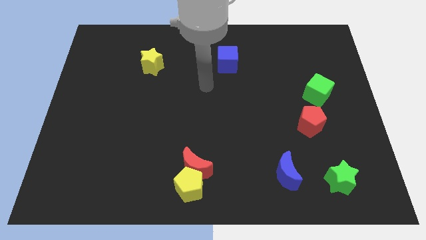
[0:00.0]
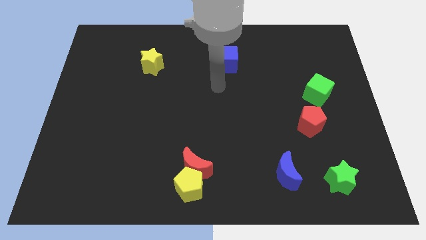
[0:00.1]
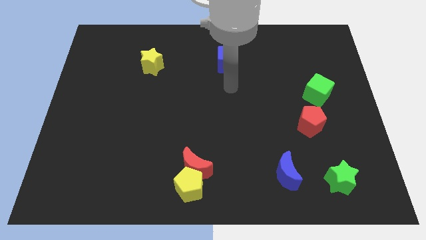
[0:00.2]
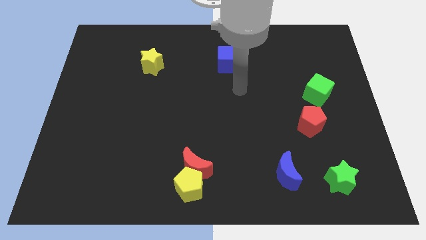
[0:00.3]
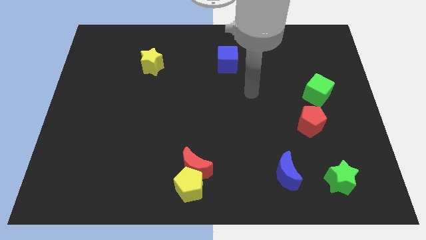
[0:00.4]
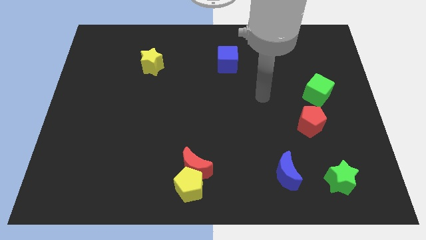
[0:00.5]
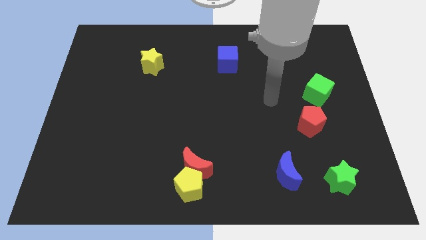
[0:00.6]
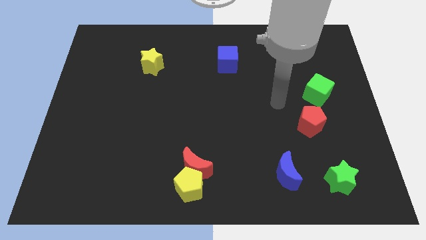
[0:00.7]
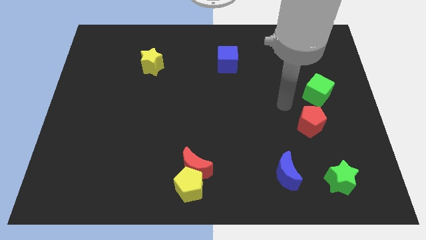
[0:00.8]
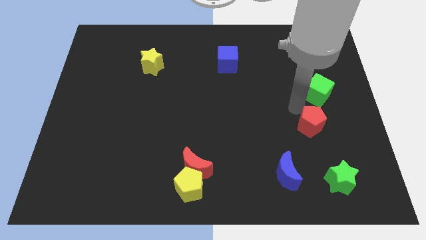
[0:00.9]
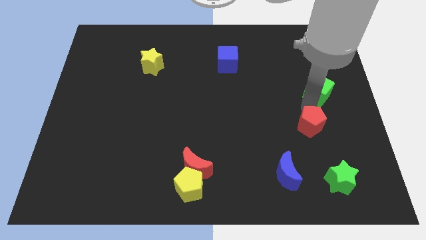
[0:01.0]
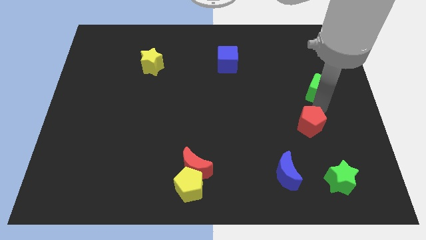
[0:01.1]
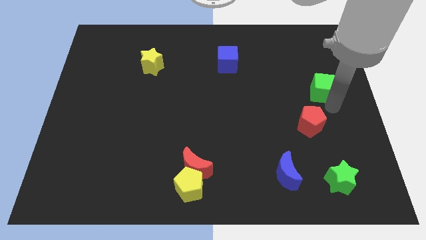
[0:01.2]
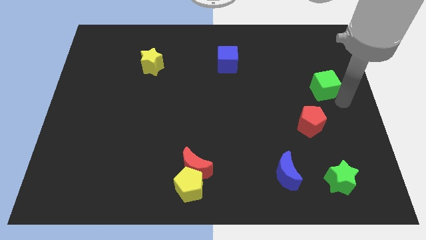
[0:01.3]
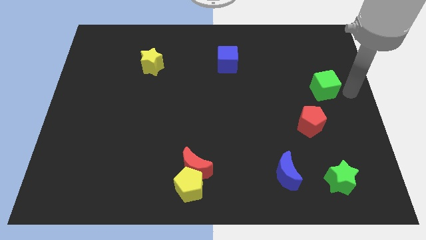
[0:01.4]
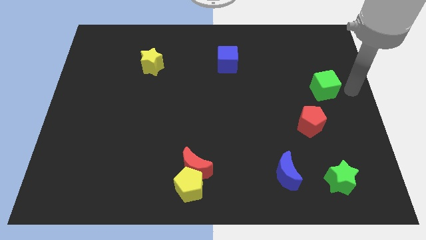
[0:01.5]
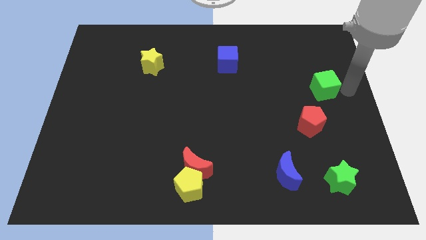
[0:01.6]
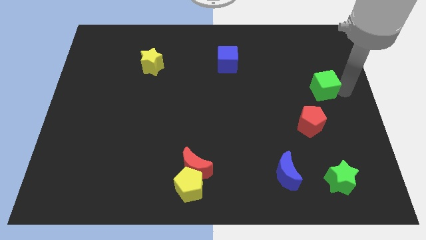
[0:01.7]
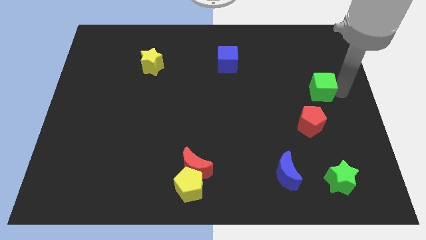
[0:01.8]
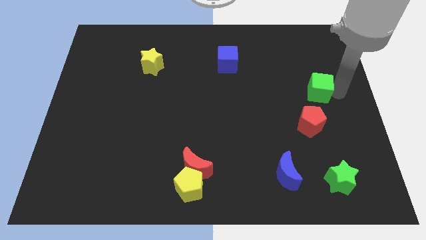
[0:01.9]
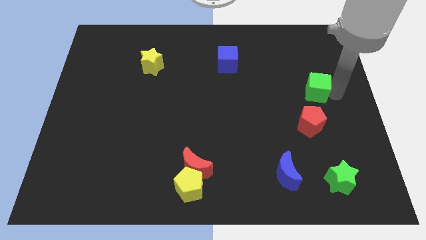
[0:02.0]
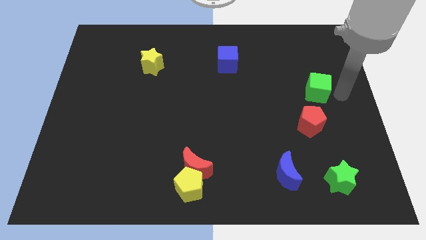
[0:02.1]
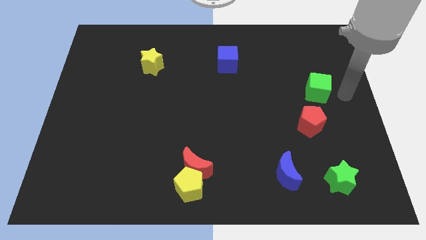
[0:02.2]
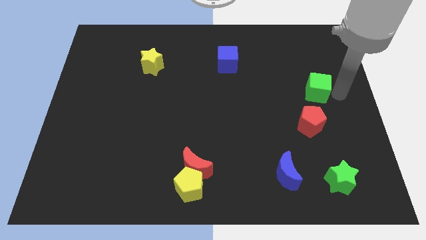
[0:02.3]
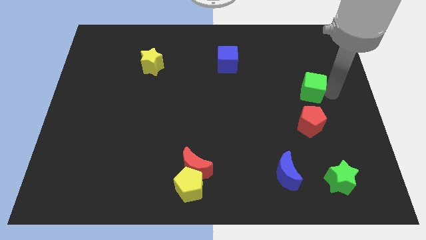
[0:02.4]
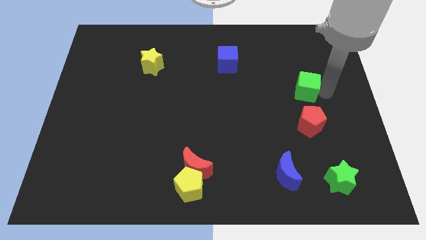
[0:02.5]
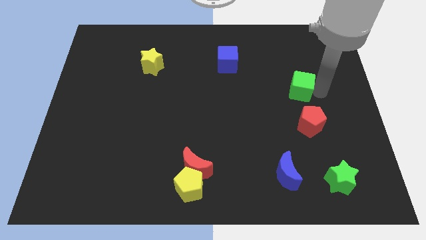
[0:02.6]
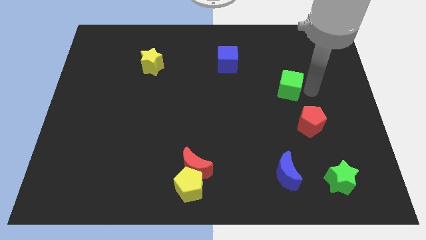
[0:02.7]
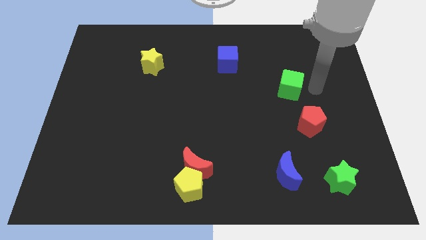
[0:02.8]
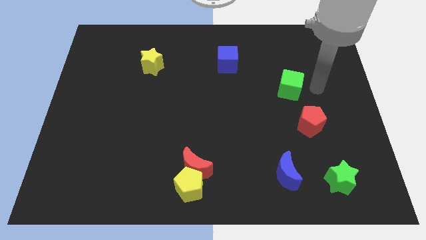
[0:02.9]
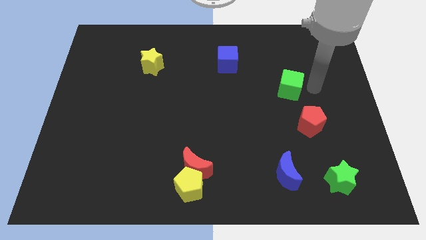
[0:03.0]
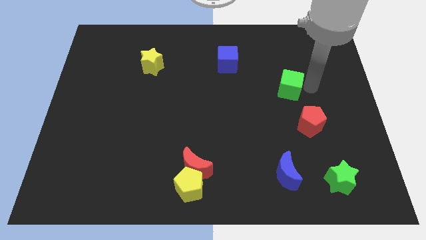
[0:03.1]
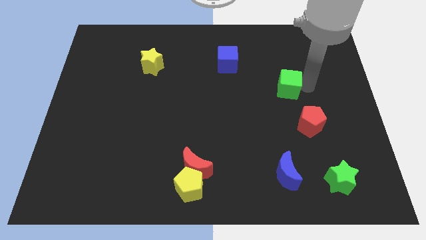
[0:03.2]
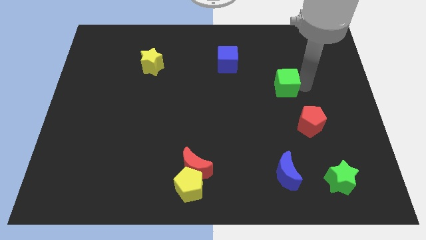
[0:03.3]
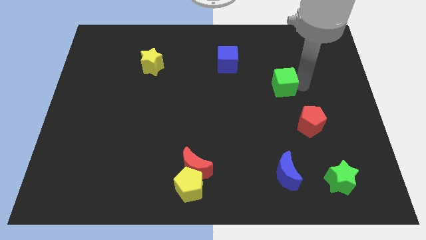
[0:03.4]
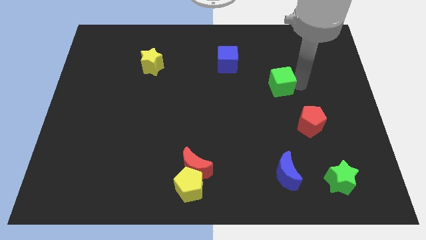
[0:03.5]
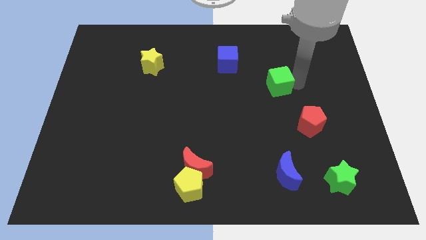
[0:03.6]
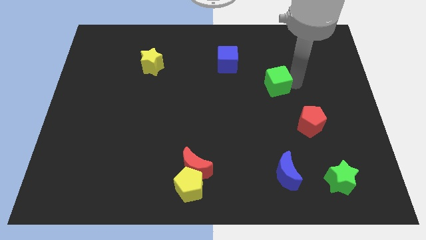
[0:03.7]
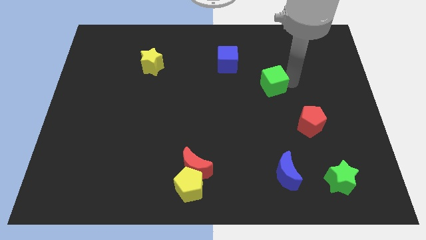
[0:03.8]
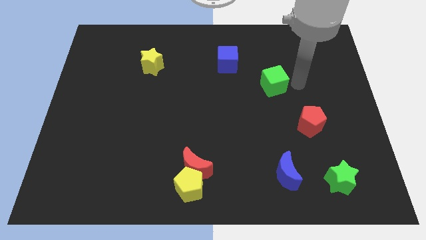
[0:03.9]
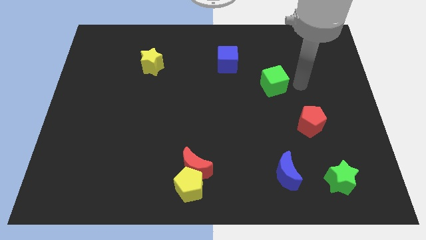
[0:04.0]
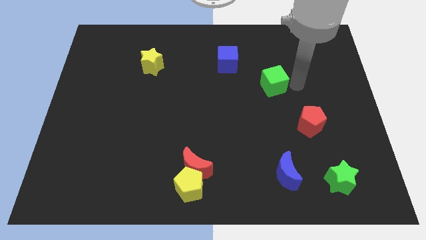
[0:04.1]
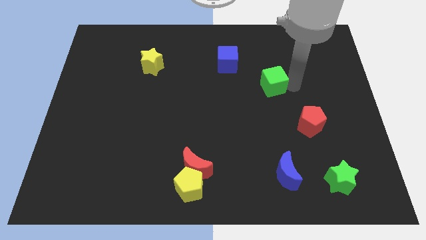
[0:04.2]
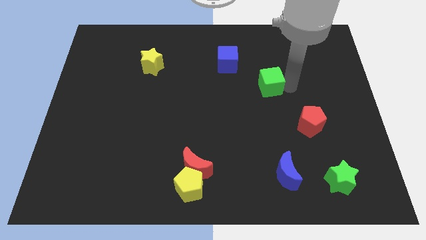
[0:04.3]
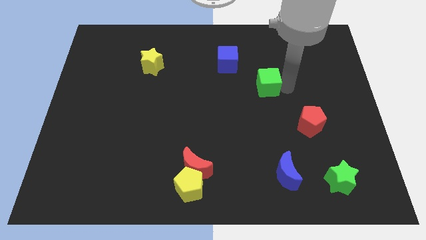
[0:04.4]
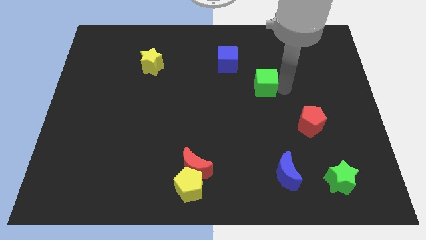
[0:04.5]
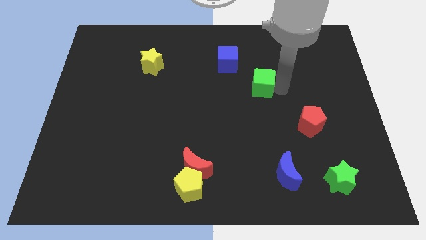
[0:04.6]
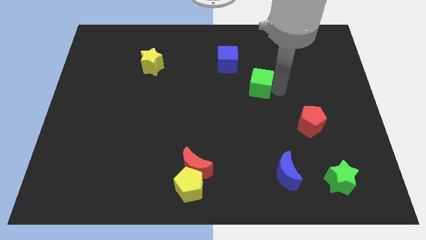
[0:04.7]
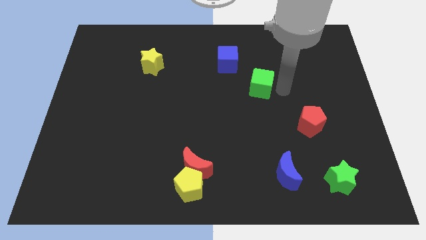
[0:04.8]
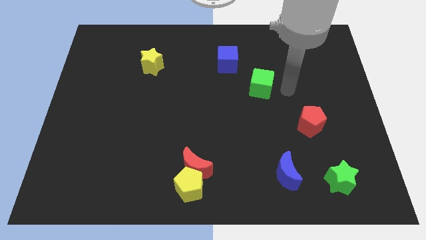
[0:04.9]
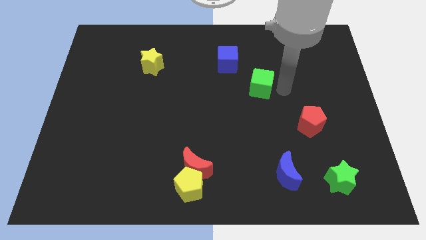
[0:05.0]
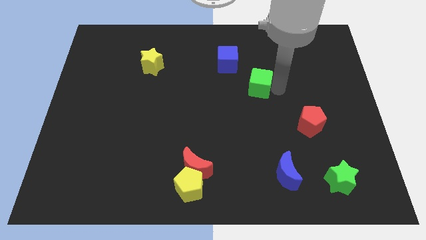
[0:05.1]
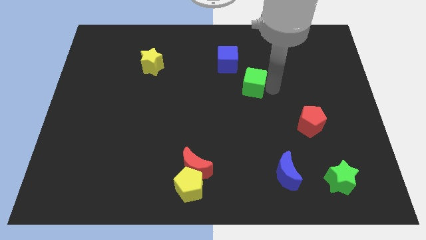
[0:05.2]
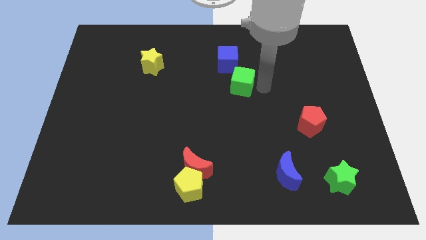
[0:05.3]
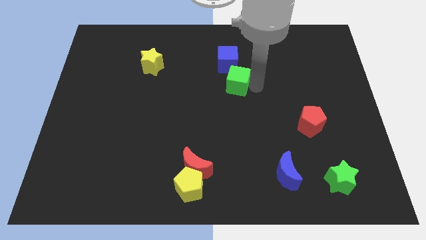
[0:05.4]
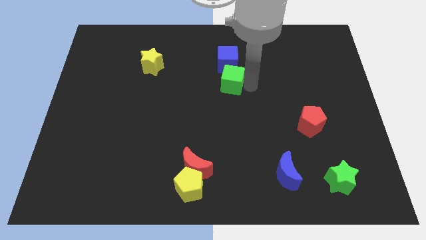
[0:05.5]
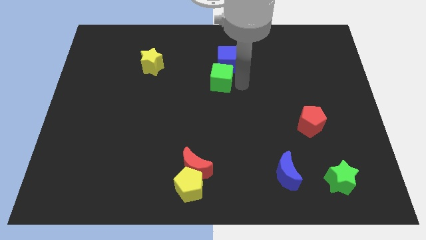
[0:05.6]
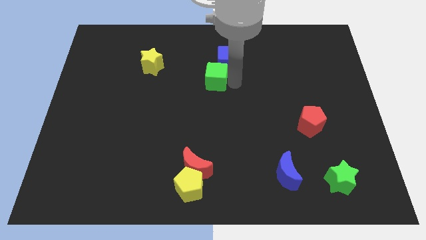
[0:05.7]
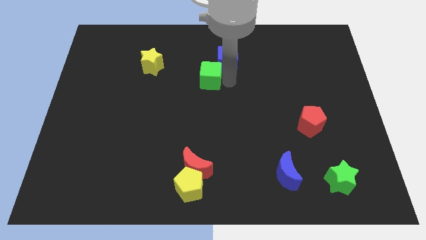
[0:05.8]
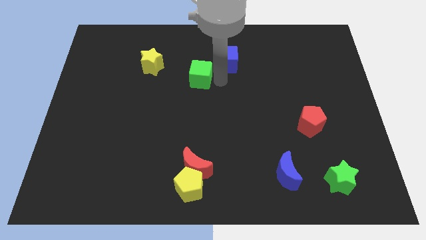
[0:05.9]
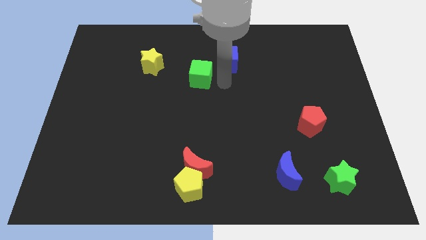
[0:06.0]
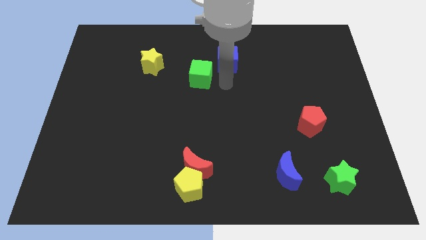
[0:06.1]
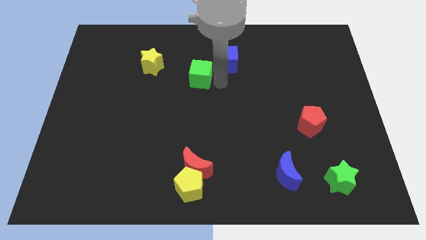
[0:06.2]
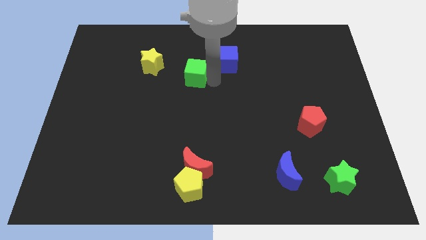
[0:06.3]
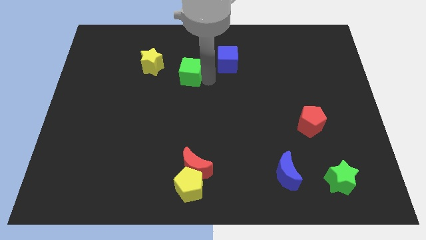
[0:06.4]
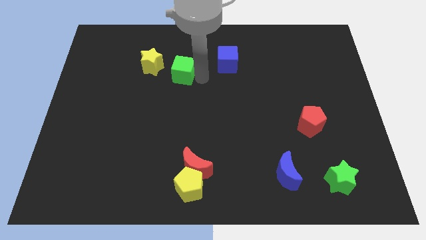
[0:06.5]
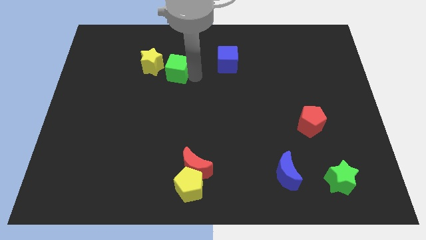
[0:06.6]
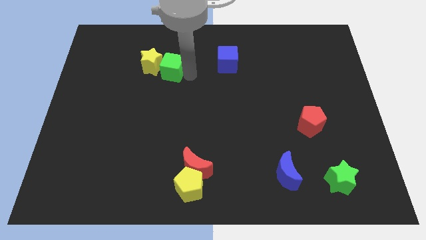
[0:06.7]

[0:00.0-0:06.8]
slide the green cube to the yellow star

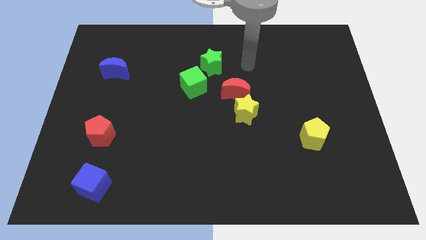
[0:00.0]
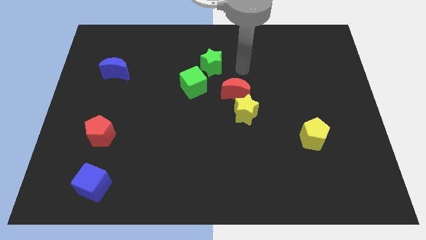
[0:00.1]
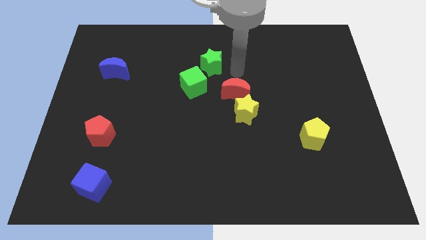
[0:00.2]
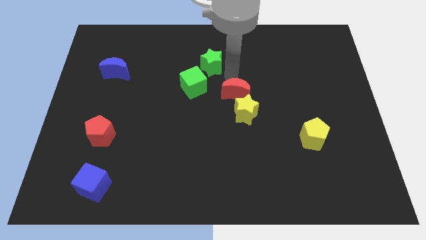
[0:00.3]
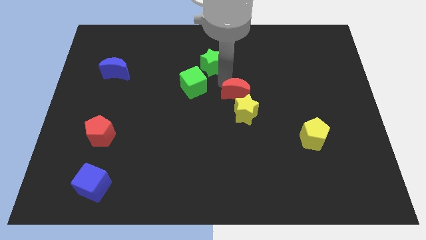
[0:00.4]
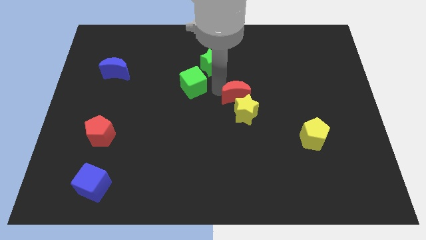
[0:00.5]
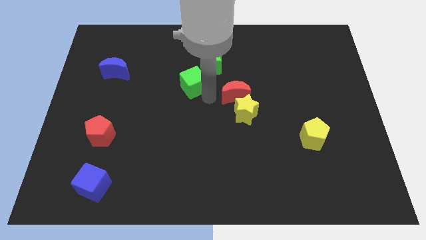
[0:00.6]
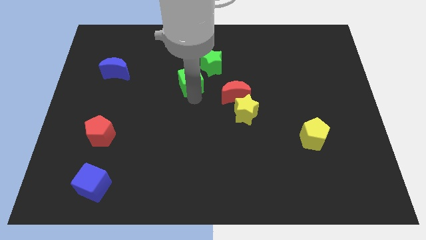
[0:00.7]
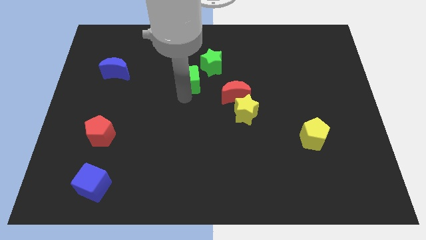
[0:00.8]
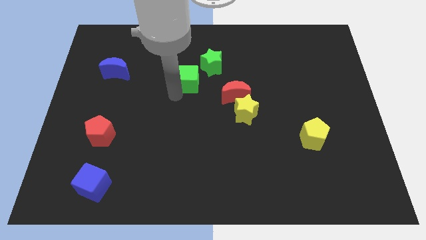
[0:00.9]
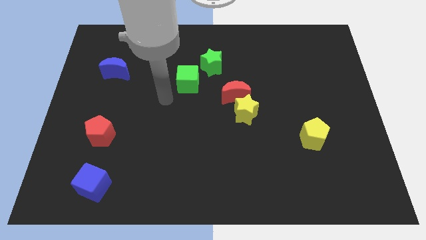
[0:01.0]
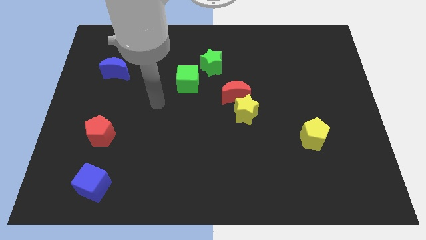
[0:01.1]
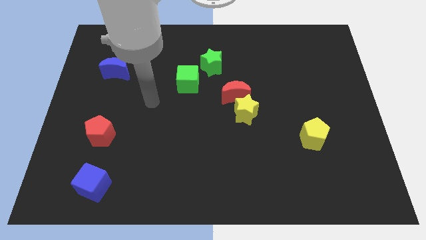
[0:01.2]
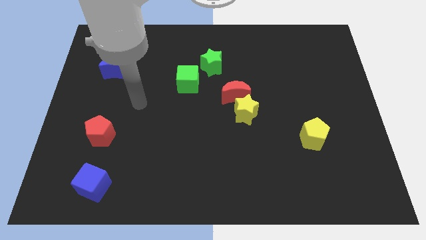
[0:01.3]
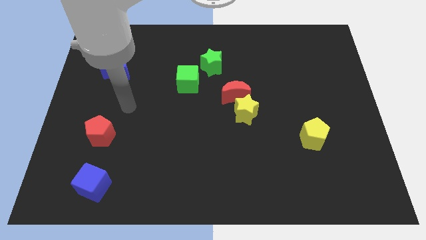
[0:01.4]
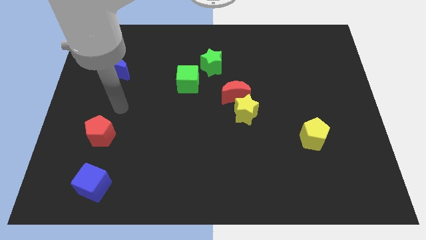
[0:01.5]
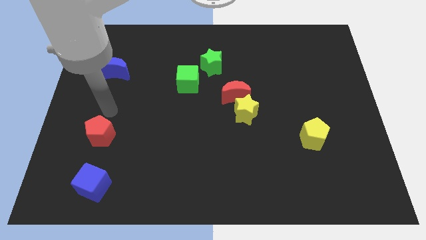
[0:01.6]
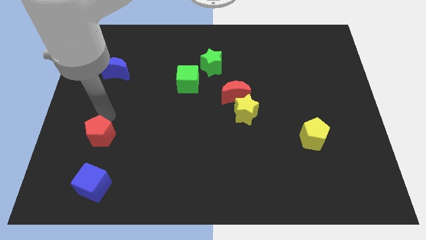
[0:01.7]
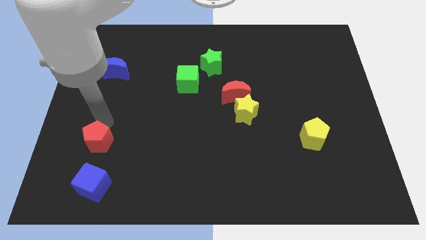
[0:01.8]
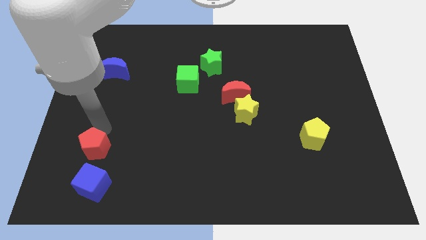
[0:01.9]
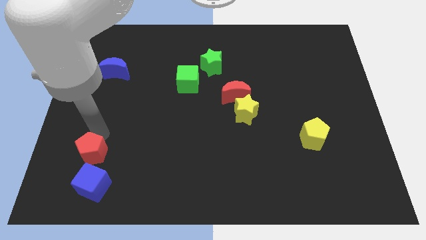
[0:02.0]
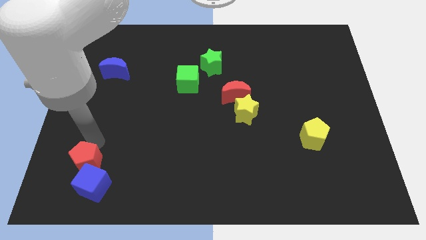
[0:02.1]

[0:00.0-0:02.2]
push the red pentagon close to the blue cube
